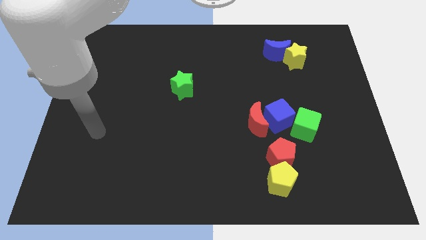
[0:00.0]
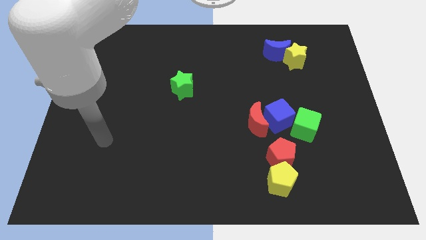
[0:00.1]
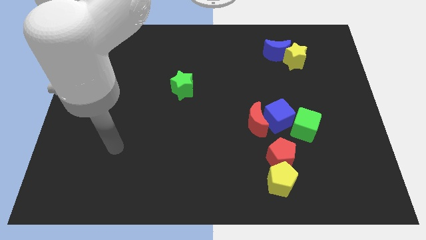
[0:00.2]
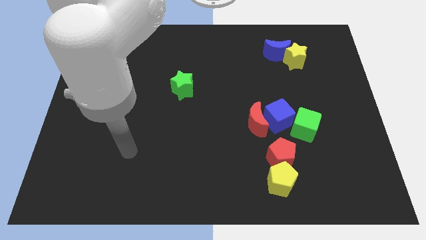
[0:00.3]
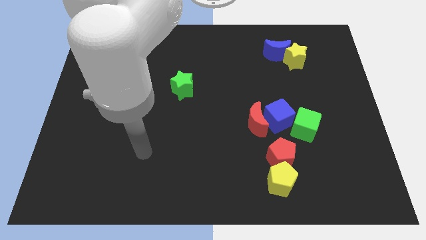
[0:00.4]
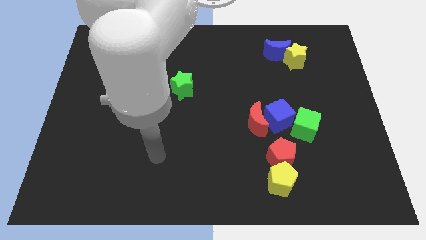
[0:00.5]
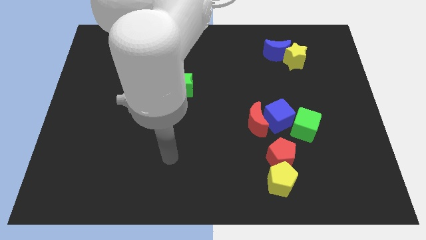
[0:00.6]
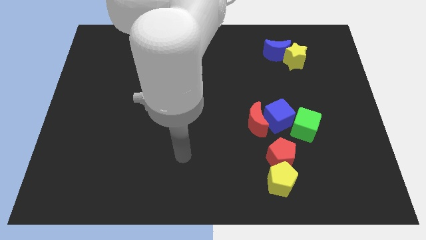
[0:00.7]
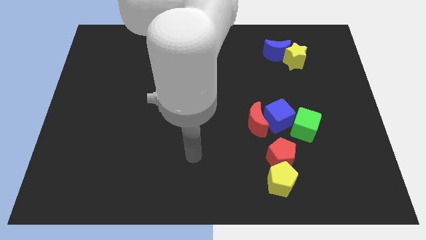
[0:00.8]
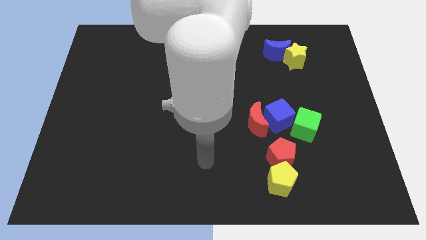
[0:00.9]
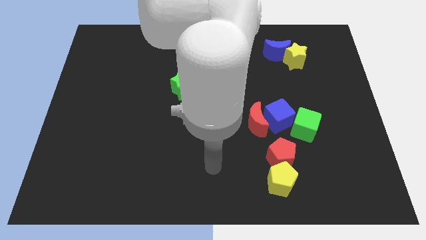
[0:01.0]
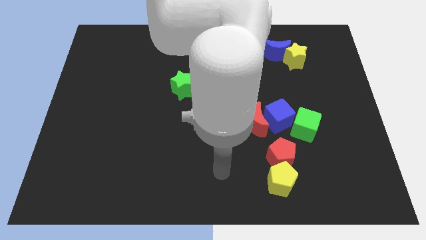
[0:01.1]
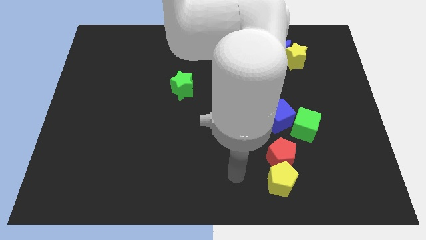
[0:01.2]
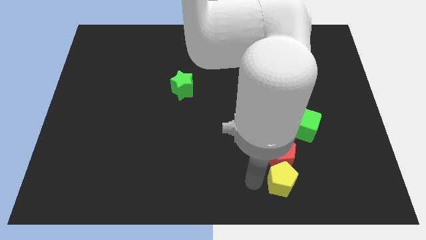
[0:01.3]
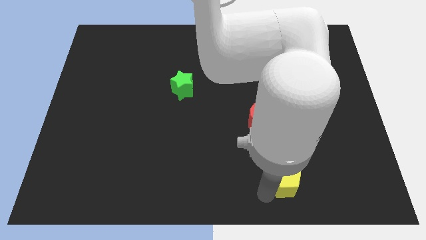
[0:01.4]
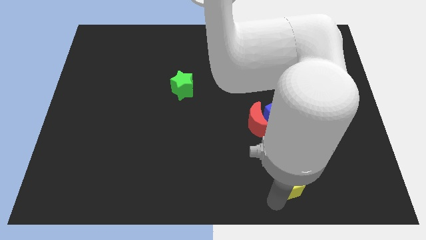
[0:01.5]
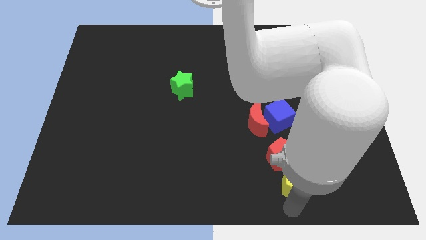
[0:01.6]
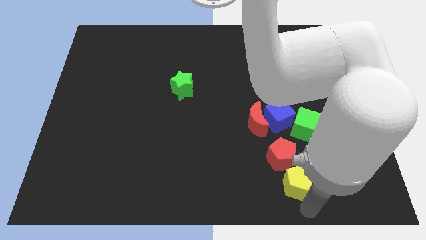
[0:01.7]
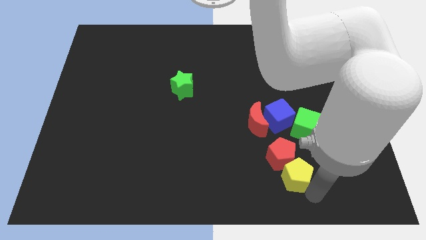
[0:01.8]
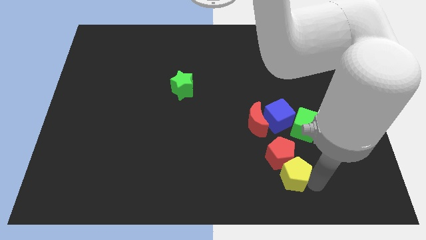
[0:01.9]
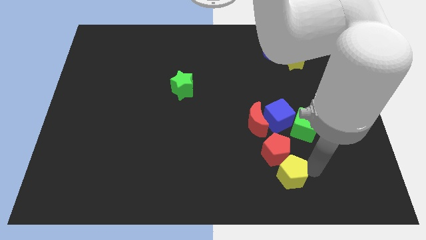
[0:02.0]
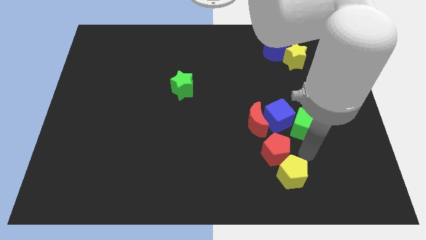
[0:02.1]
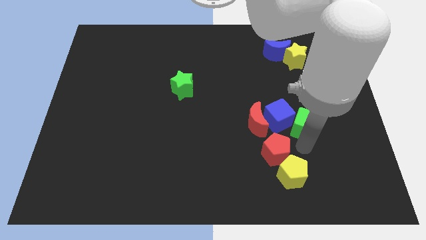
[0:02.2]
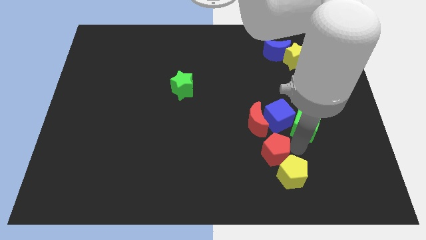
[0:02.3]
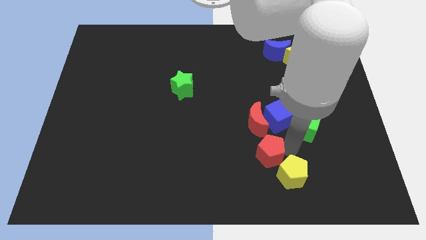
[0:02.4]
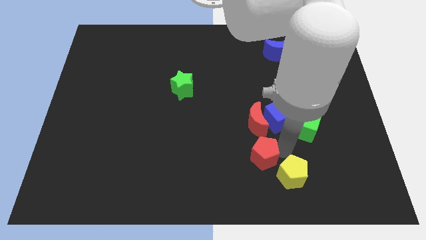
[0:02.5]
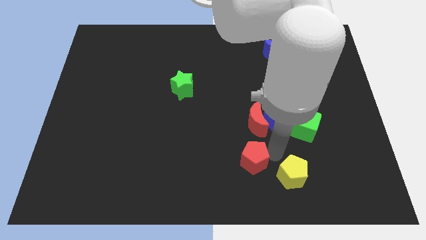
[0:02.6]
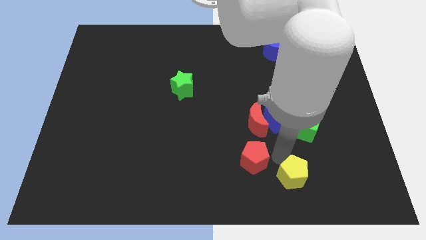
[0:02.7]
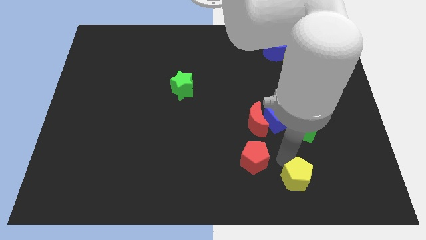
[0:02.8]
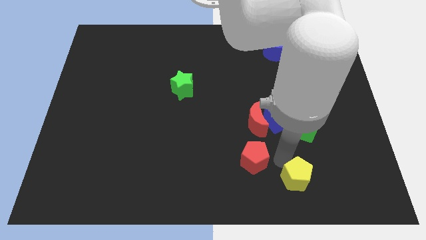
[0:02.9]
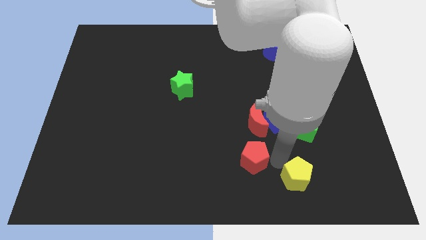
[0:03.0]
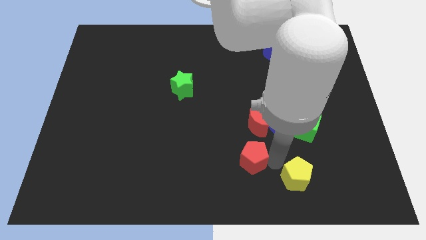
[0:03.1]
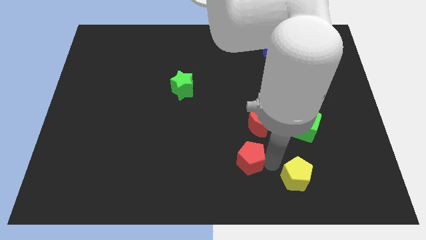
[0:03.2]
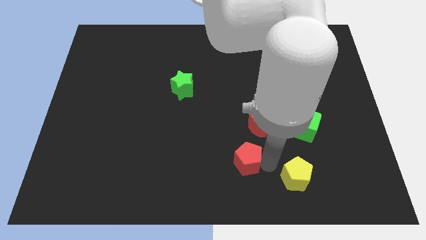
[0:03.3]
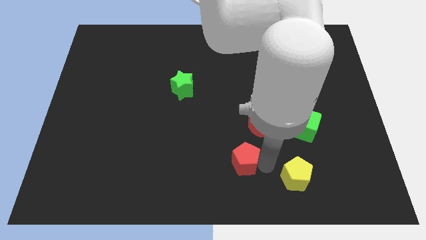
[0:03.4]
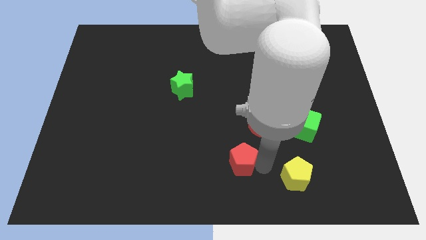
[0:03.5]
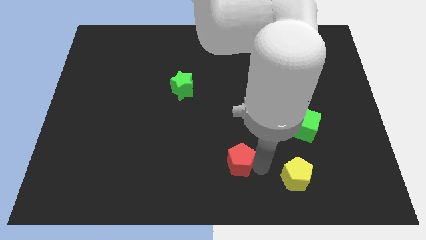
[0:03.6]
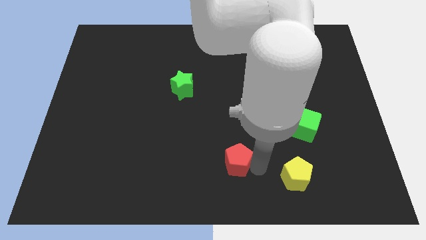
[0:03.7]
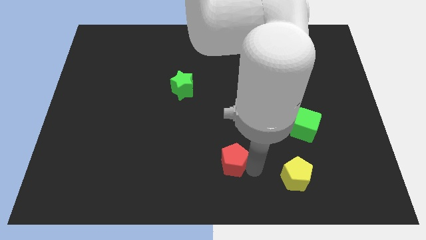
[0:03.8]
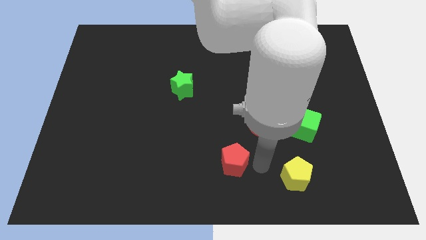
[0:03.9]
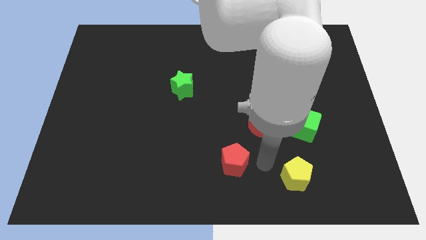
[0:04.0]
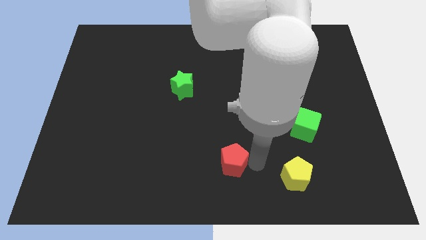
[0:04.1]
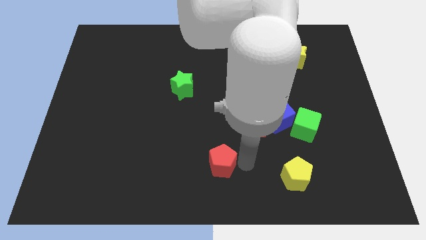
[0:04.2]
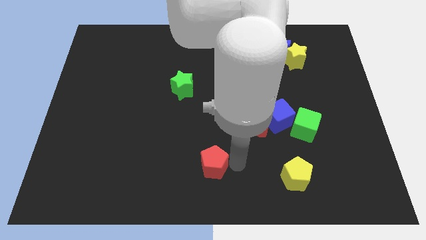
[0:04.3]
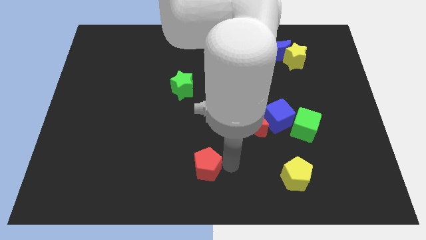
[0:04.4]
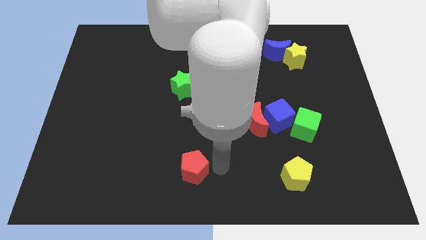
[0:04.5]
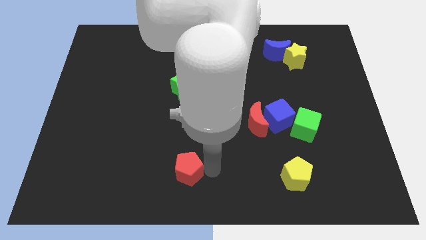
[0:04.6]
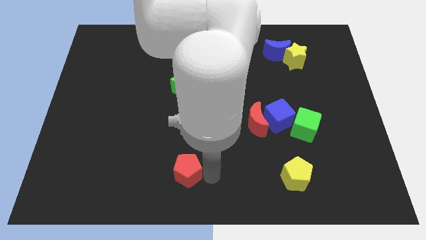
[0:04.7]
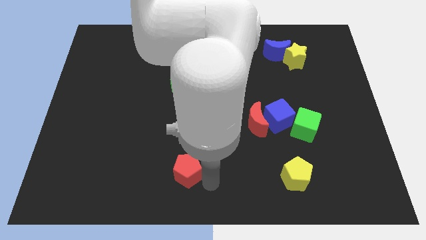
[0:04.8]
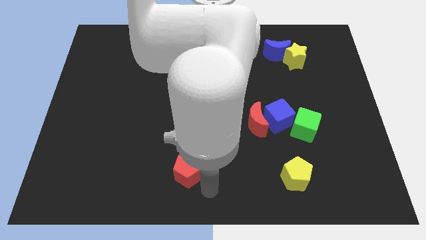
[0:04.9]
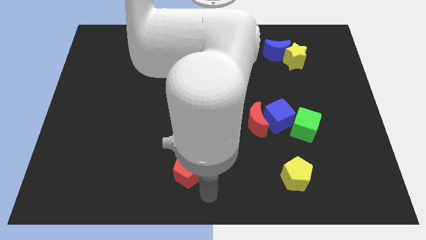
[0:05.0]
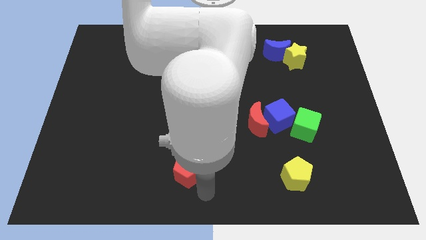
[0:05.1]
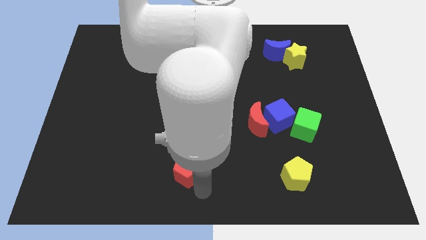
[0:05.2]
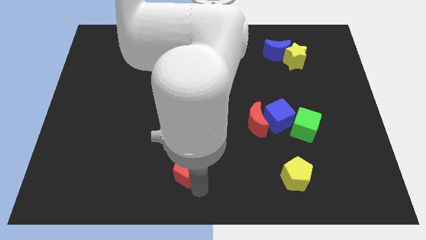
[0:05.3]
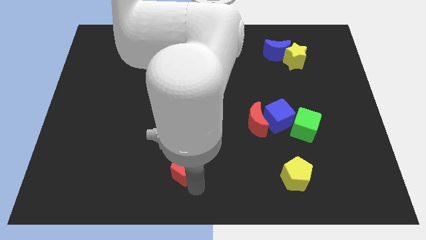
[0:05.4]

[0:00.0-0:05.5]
push the red pentagon to the left

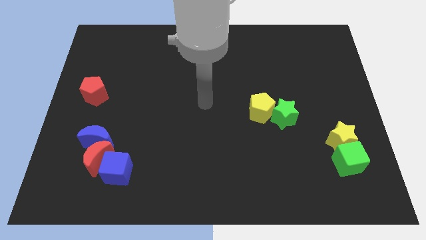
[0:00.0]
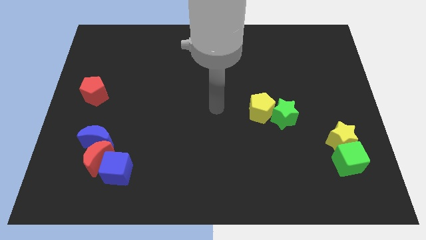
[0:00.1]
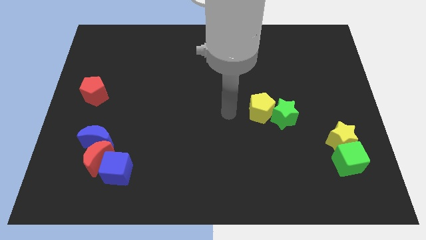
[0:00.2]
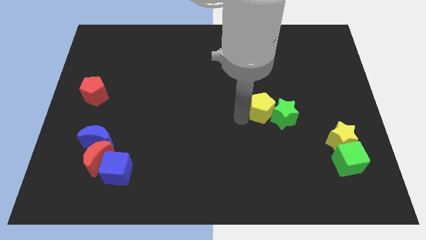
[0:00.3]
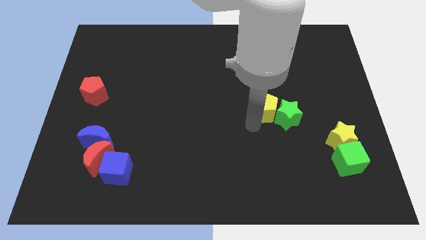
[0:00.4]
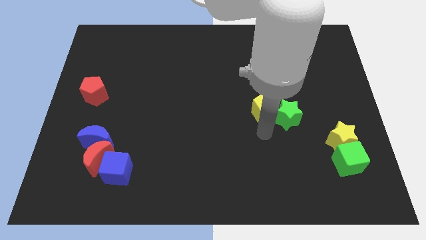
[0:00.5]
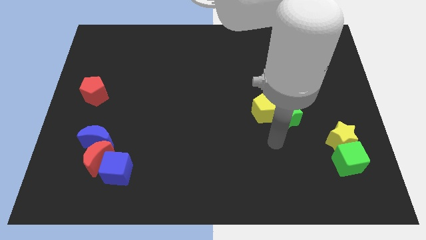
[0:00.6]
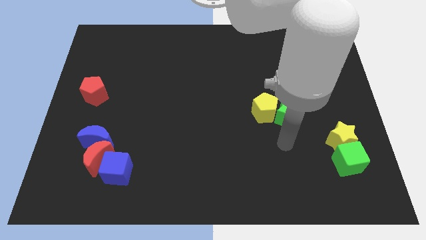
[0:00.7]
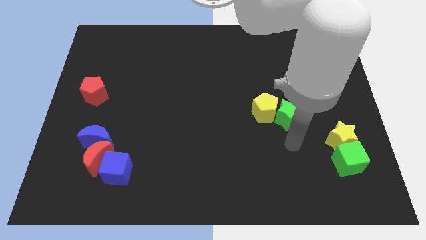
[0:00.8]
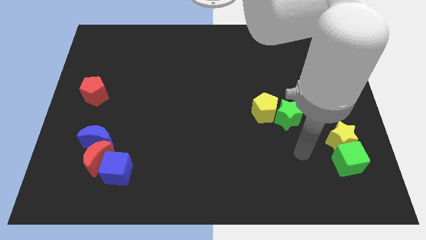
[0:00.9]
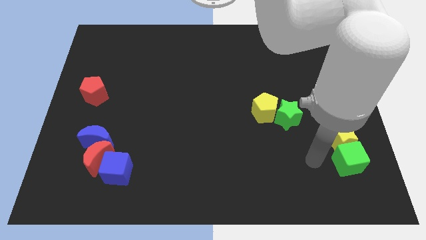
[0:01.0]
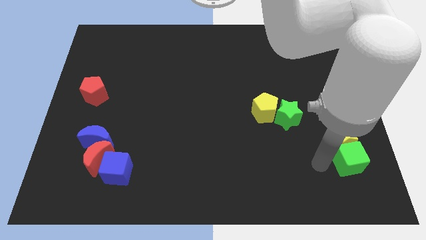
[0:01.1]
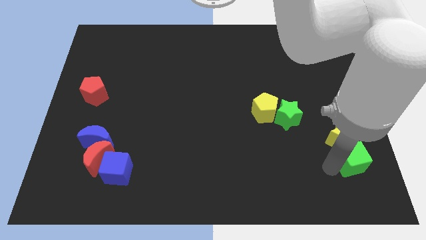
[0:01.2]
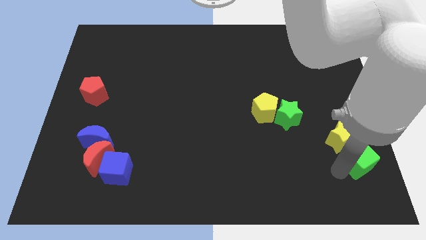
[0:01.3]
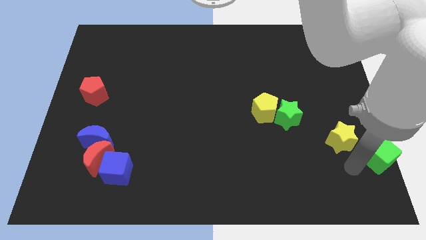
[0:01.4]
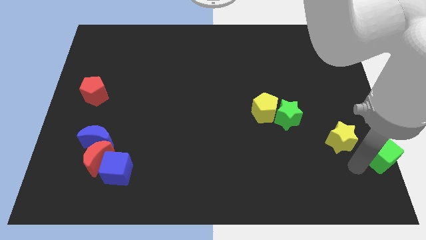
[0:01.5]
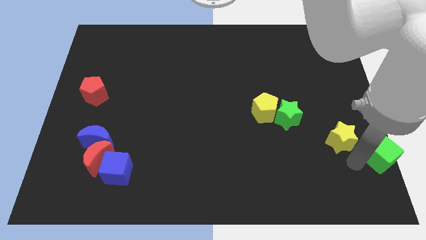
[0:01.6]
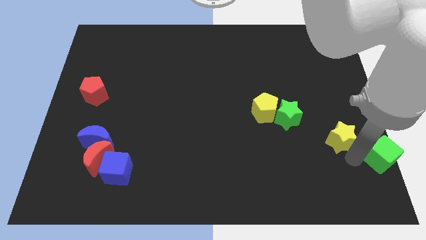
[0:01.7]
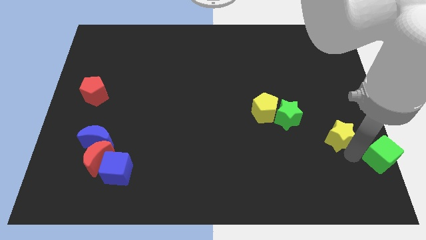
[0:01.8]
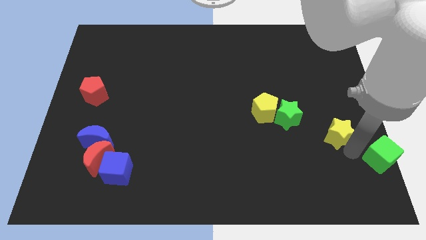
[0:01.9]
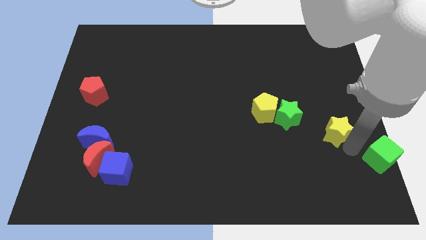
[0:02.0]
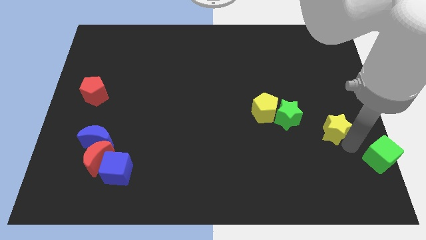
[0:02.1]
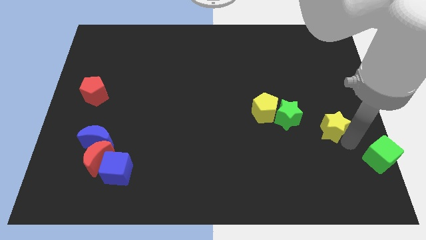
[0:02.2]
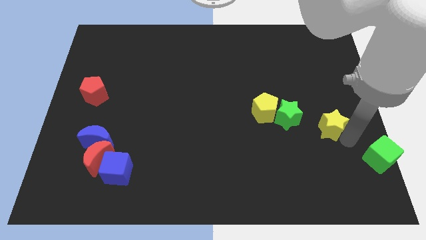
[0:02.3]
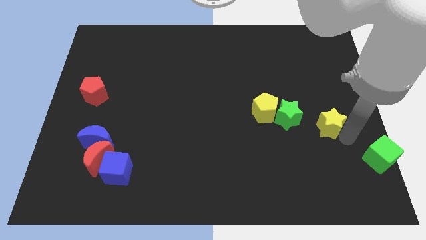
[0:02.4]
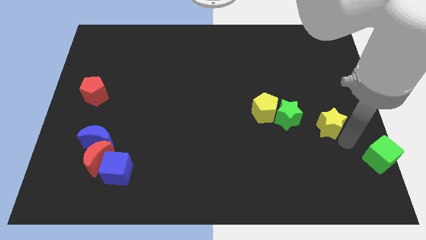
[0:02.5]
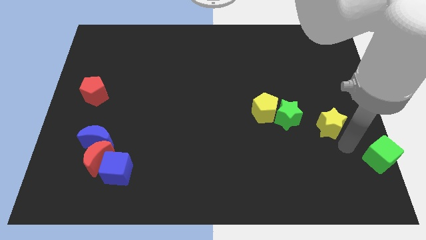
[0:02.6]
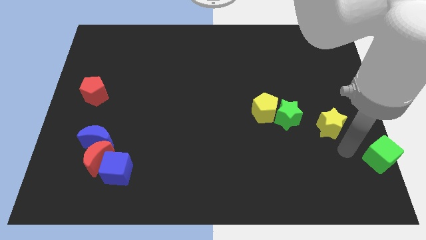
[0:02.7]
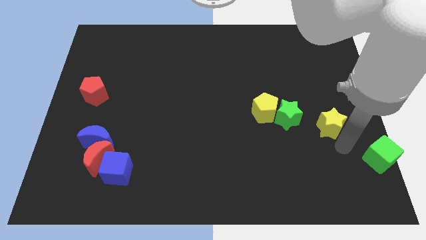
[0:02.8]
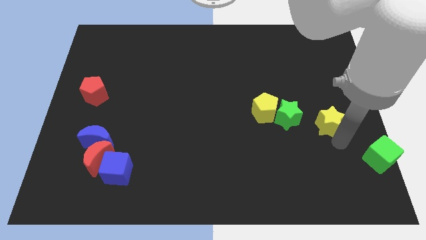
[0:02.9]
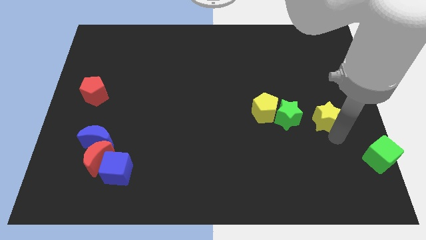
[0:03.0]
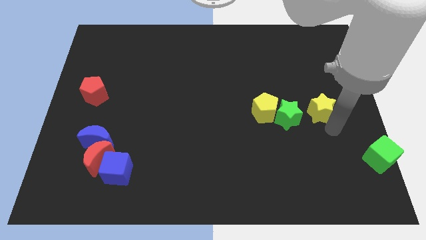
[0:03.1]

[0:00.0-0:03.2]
move the yellow star diagonally upwards and to the left slightly
